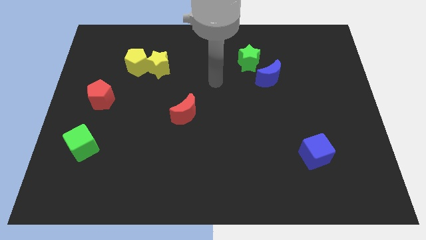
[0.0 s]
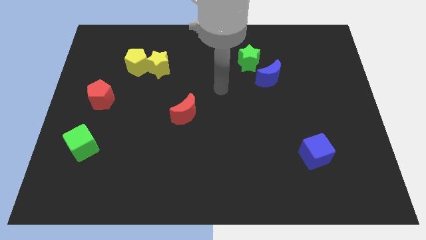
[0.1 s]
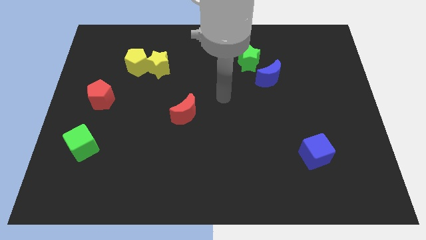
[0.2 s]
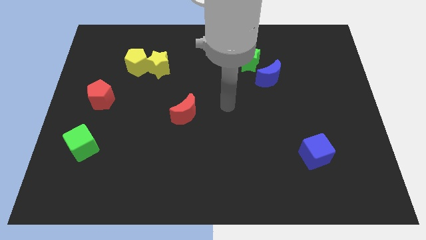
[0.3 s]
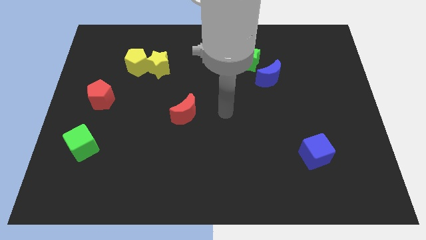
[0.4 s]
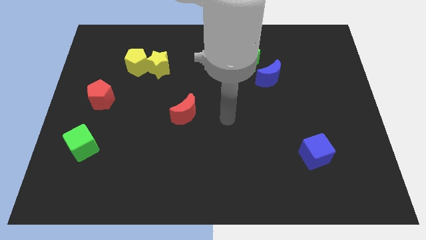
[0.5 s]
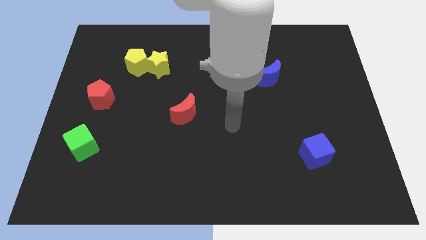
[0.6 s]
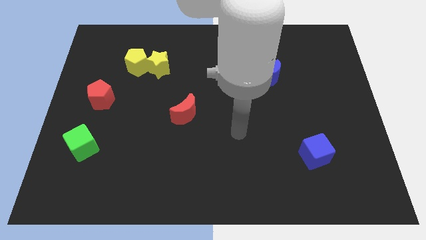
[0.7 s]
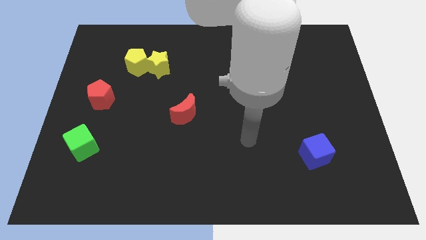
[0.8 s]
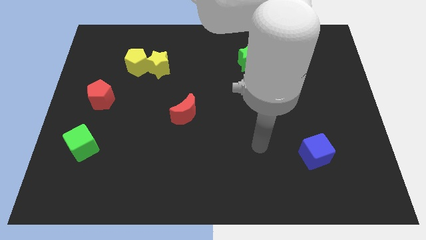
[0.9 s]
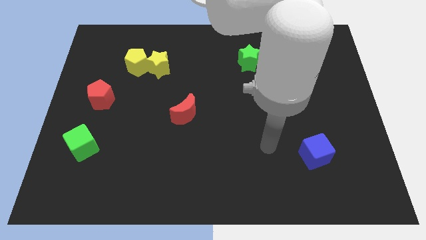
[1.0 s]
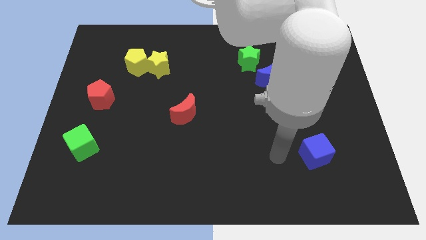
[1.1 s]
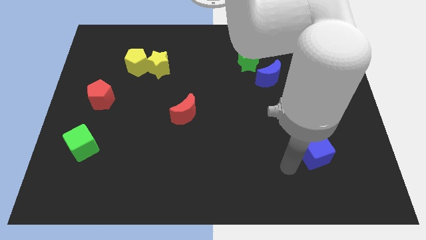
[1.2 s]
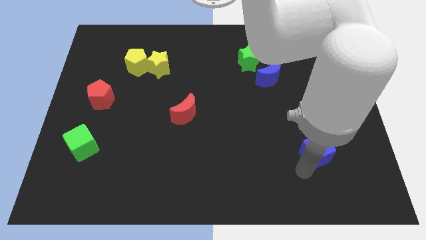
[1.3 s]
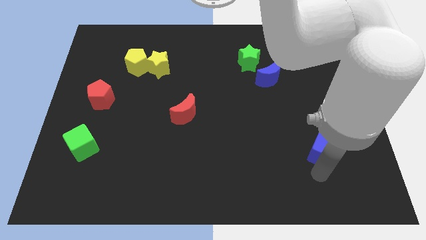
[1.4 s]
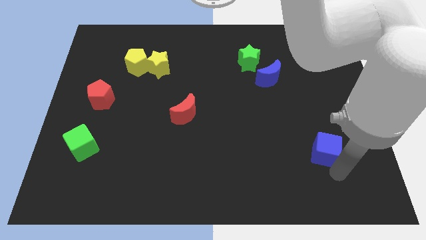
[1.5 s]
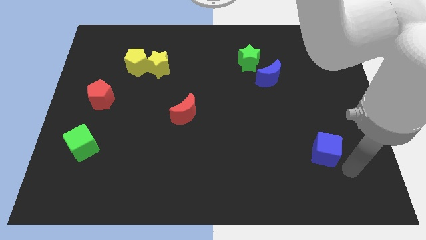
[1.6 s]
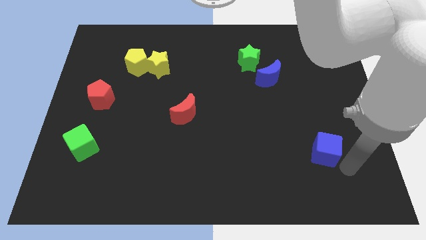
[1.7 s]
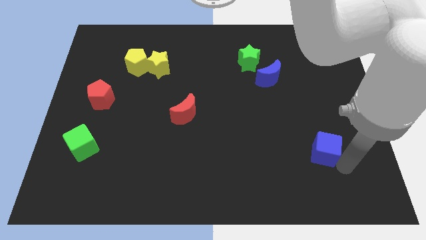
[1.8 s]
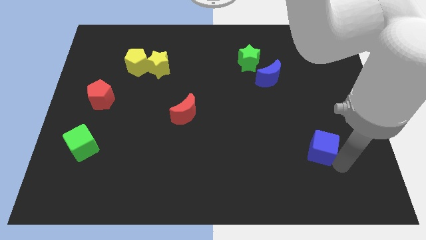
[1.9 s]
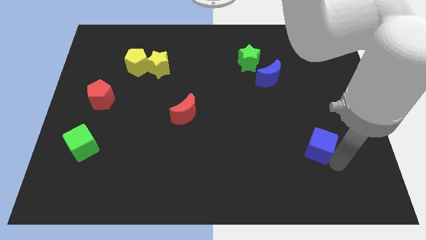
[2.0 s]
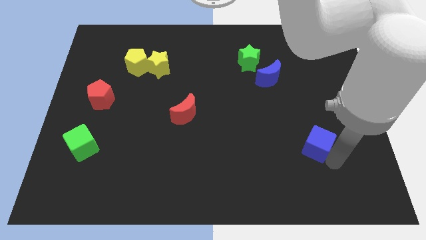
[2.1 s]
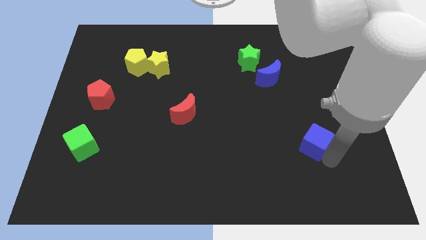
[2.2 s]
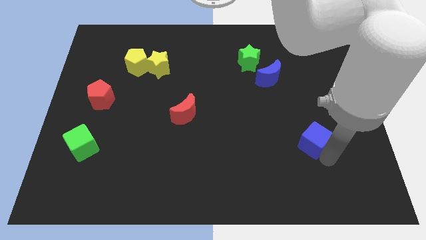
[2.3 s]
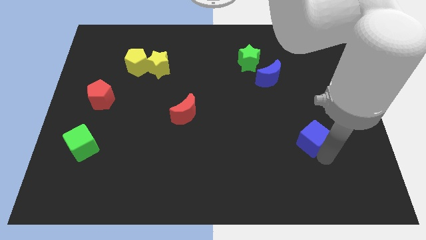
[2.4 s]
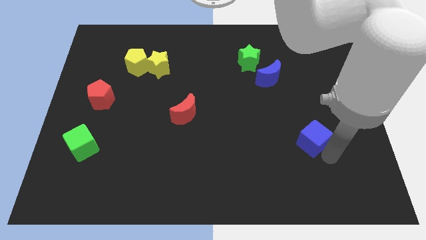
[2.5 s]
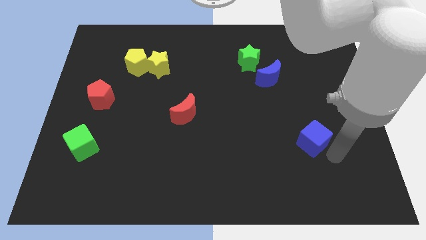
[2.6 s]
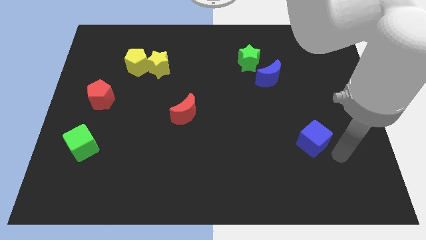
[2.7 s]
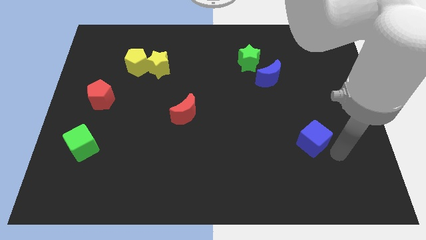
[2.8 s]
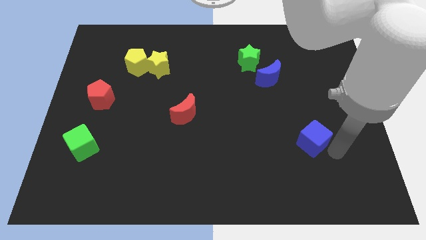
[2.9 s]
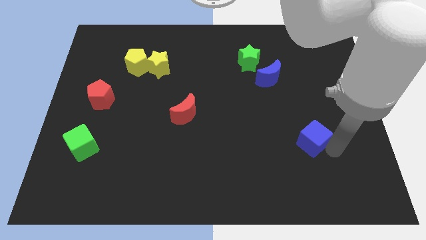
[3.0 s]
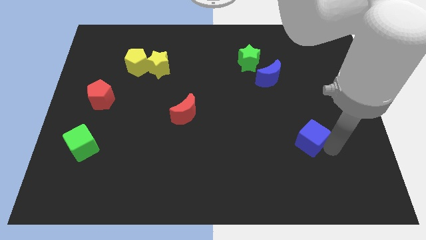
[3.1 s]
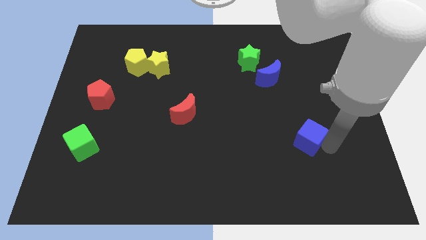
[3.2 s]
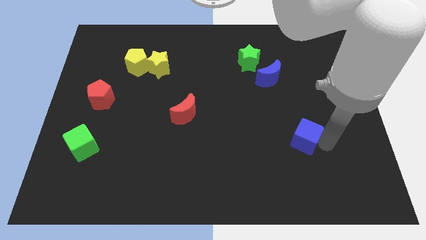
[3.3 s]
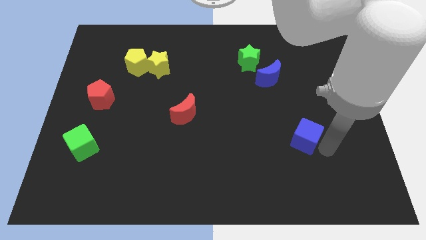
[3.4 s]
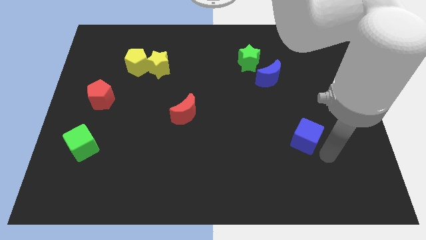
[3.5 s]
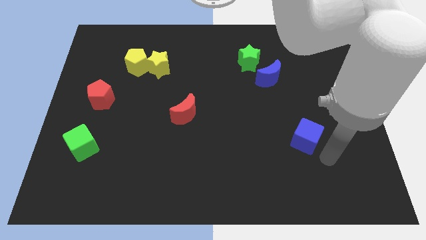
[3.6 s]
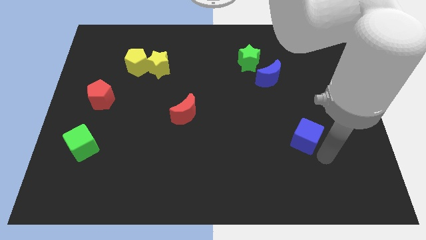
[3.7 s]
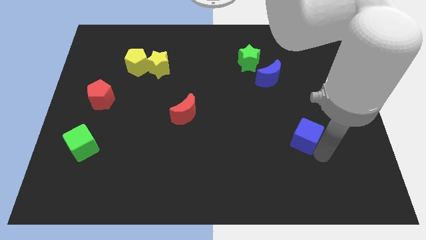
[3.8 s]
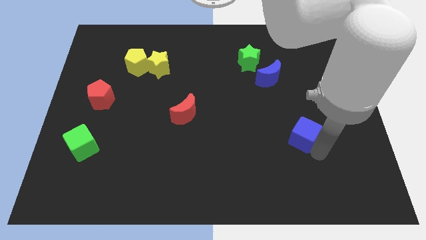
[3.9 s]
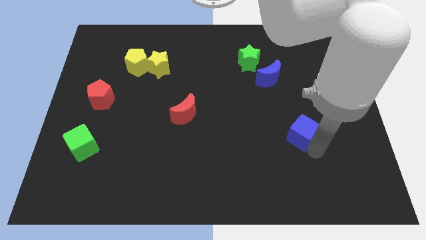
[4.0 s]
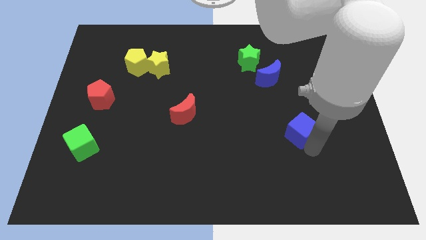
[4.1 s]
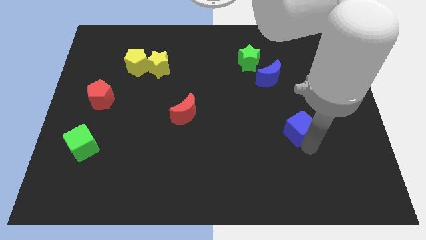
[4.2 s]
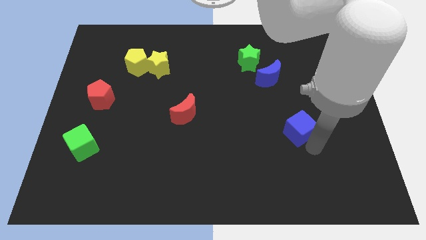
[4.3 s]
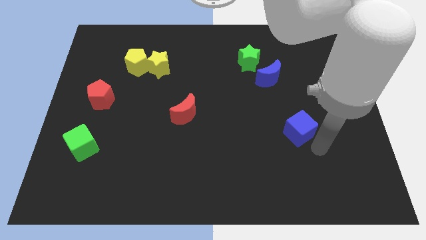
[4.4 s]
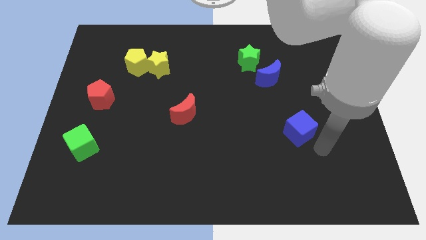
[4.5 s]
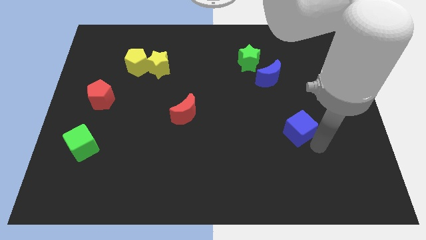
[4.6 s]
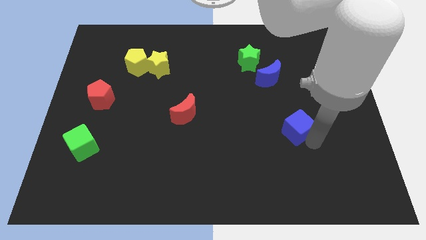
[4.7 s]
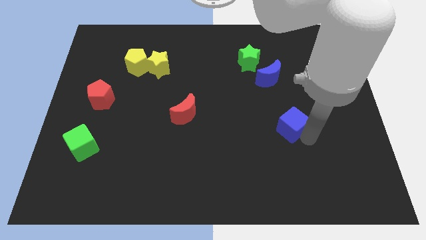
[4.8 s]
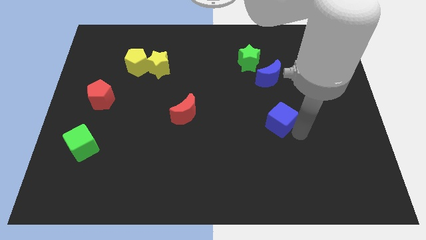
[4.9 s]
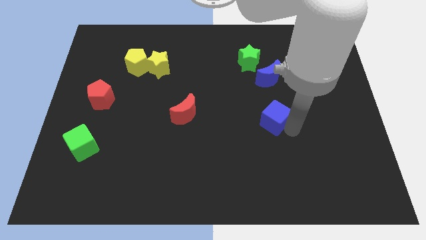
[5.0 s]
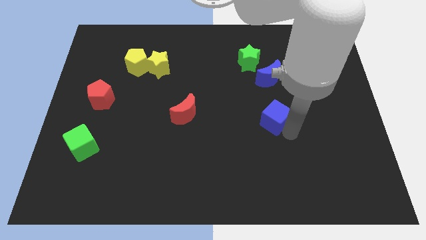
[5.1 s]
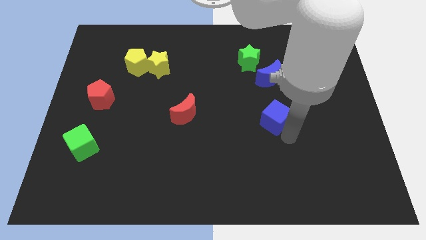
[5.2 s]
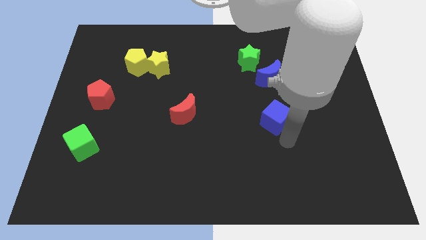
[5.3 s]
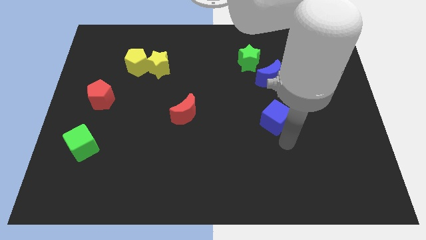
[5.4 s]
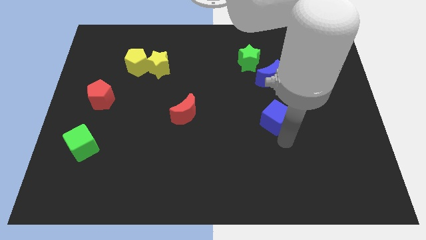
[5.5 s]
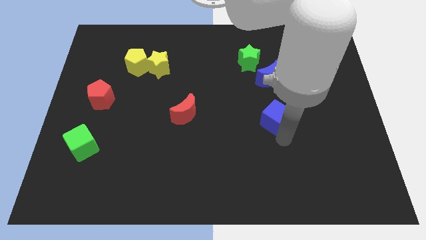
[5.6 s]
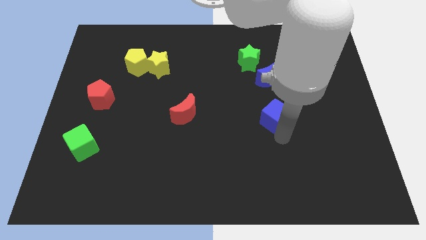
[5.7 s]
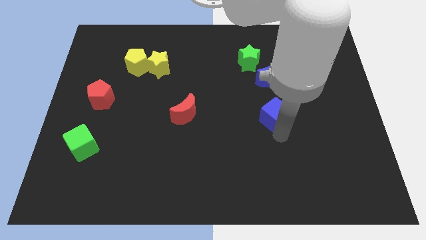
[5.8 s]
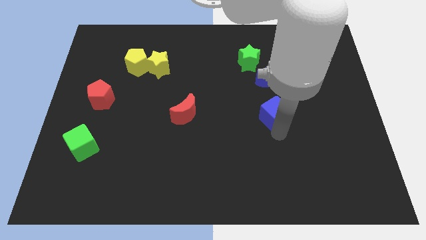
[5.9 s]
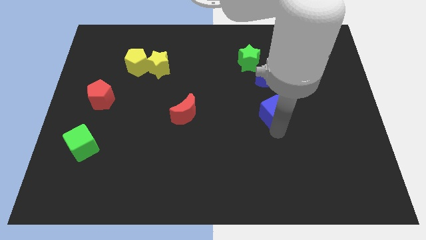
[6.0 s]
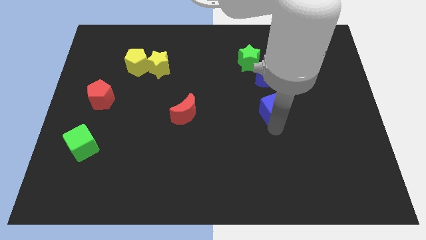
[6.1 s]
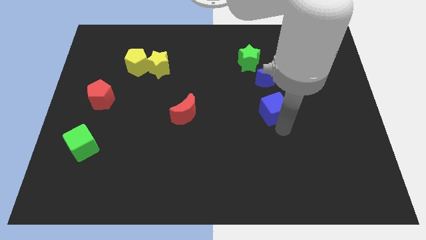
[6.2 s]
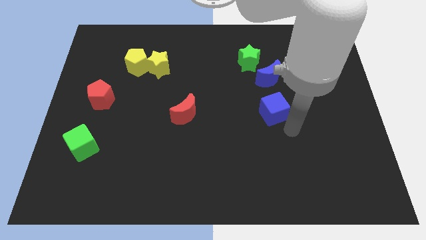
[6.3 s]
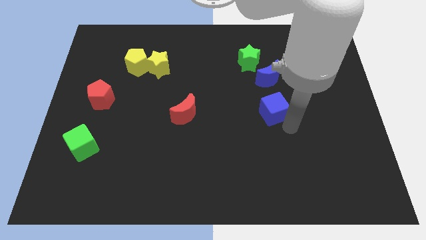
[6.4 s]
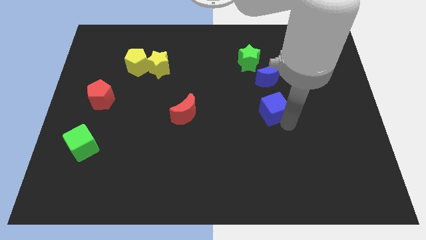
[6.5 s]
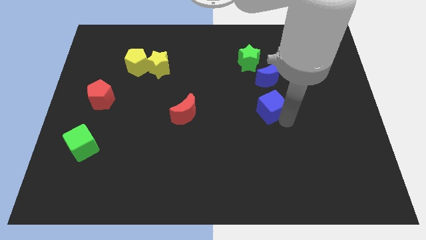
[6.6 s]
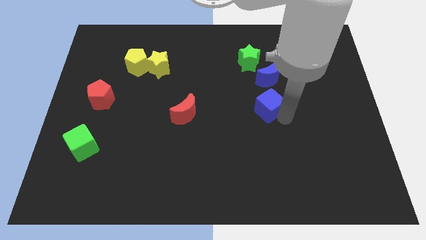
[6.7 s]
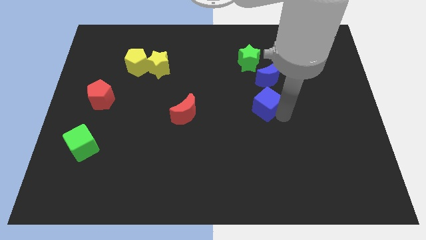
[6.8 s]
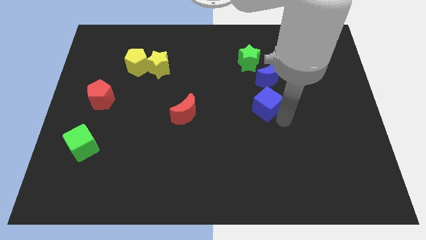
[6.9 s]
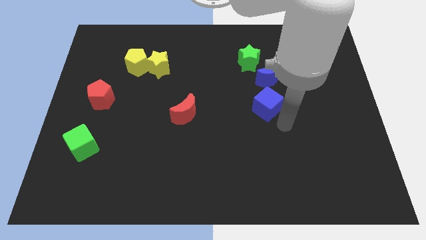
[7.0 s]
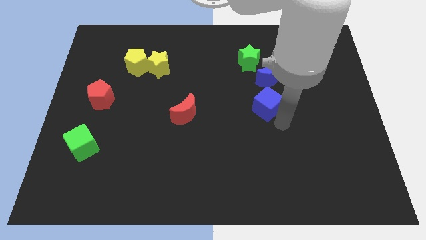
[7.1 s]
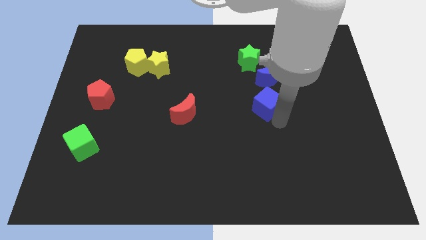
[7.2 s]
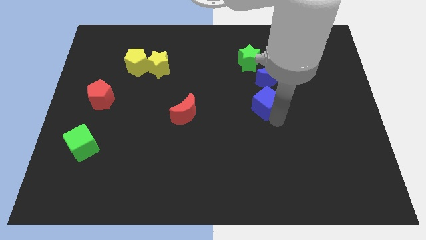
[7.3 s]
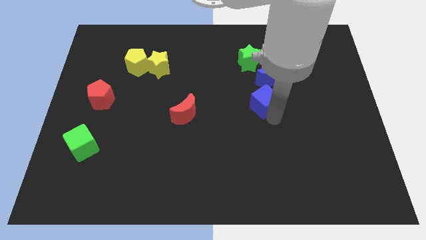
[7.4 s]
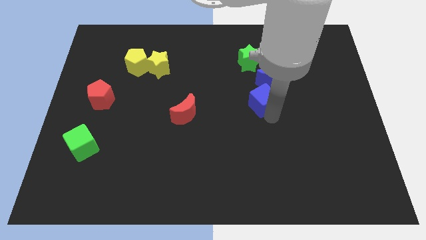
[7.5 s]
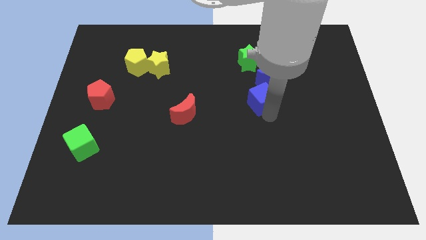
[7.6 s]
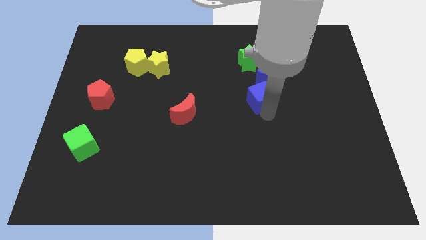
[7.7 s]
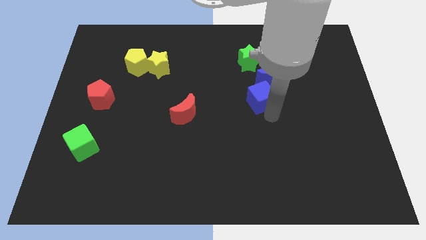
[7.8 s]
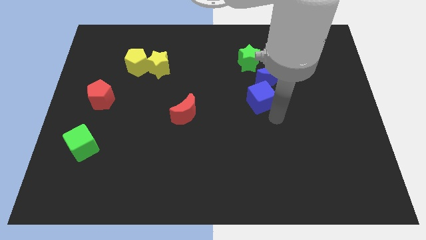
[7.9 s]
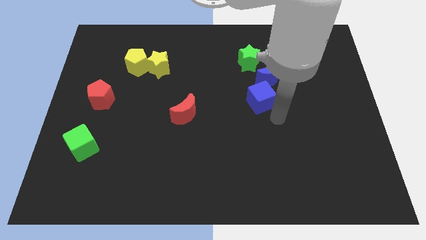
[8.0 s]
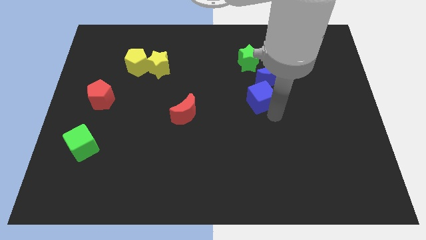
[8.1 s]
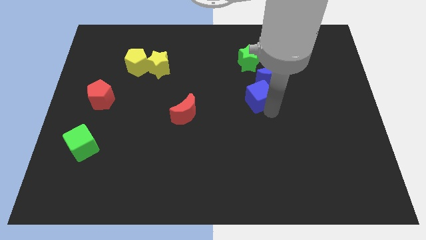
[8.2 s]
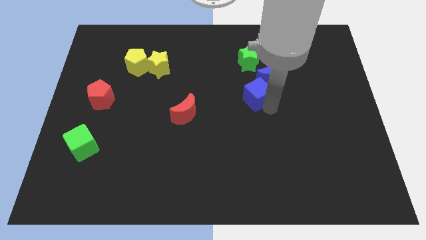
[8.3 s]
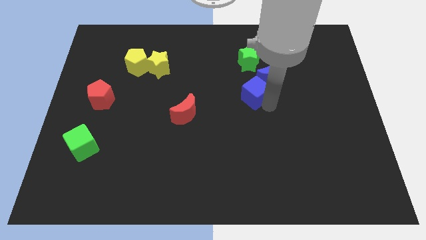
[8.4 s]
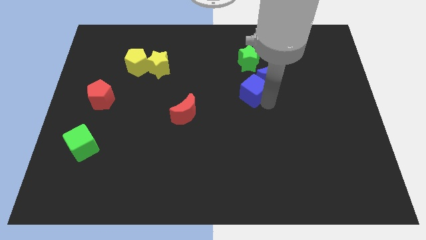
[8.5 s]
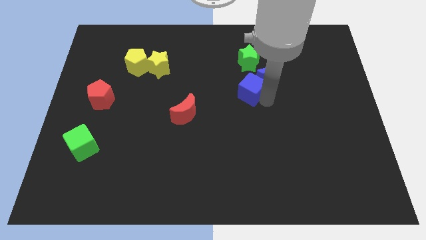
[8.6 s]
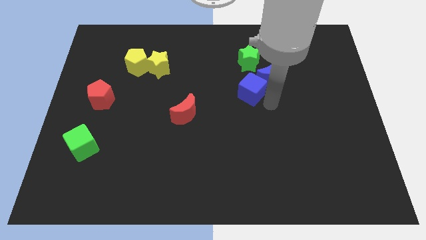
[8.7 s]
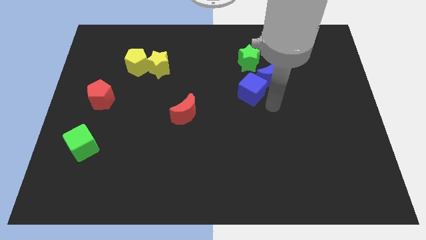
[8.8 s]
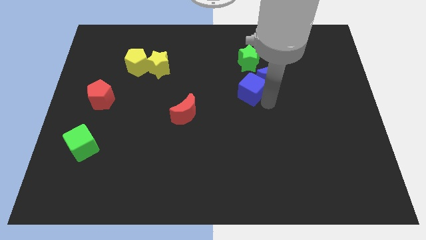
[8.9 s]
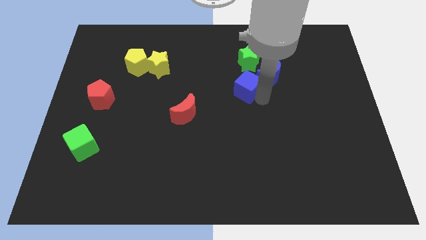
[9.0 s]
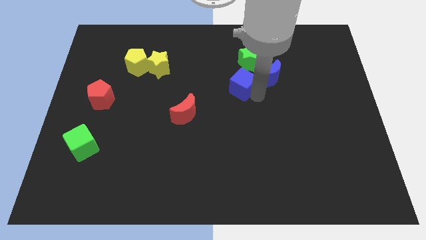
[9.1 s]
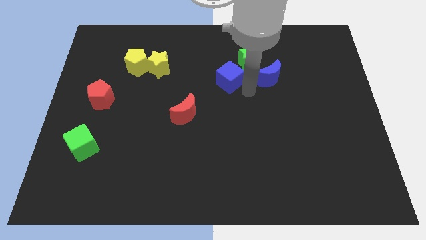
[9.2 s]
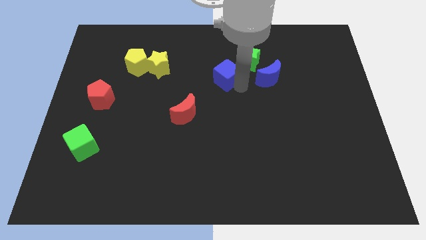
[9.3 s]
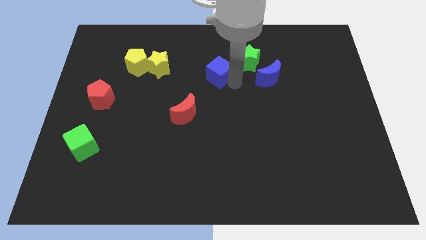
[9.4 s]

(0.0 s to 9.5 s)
move the blue cube left of the green star
